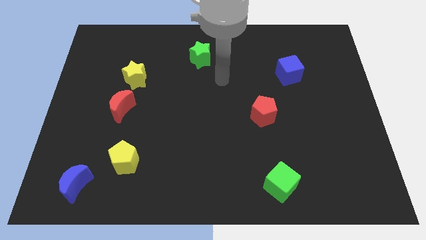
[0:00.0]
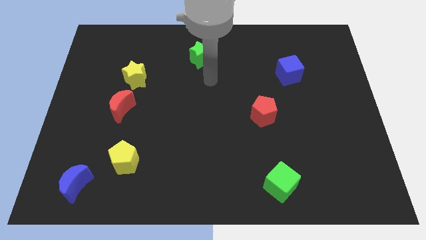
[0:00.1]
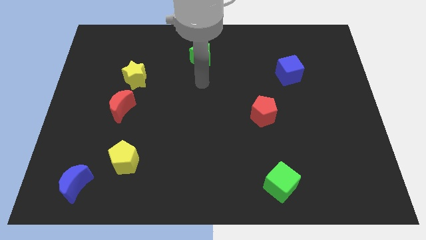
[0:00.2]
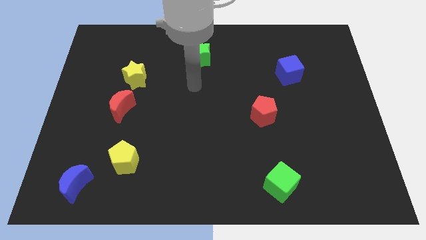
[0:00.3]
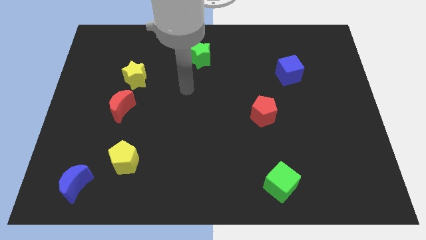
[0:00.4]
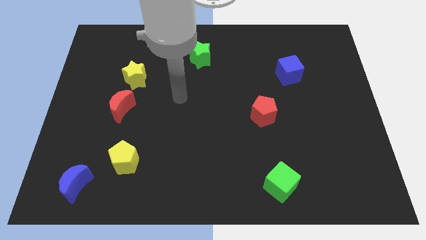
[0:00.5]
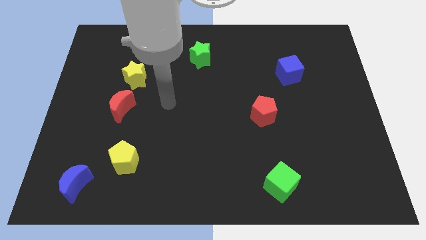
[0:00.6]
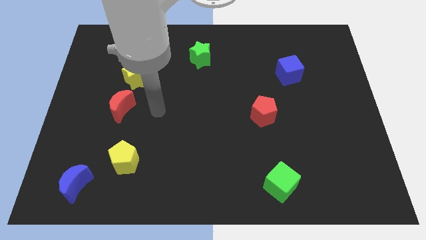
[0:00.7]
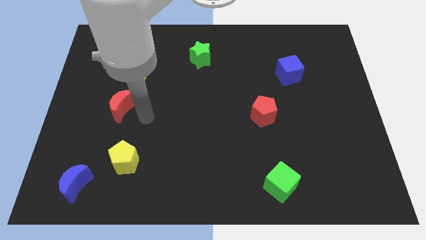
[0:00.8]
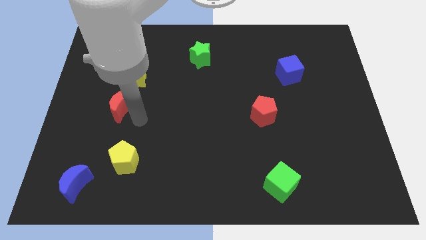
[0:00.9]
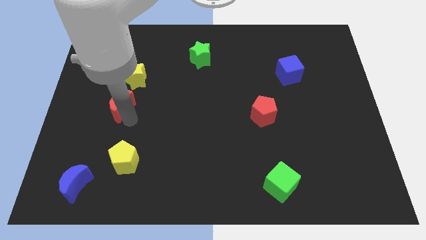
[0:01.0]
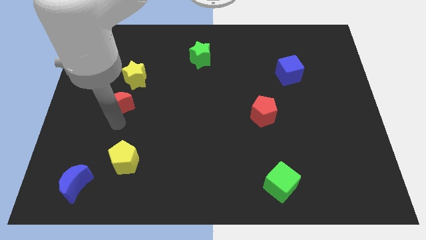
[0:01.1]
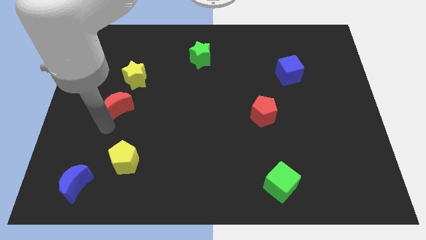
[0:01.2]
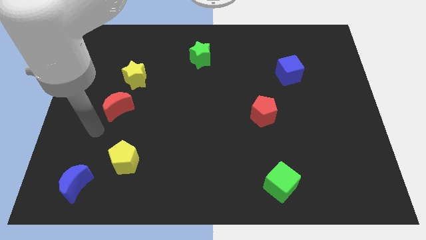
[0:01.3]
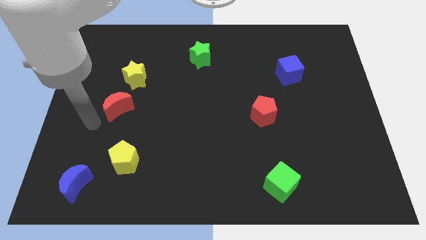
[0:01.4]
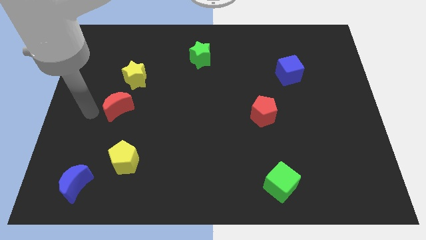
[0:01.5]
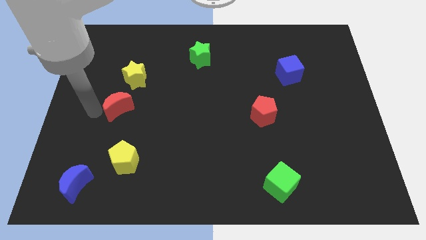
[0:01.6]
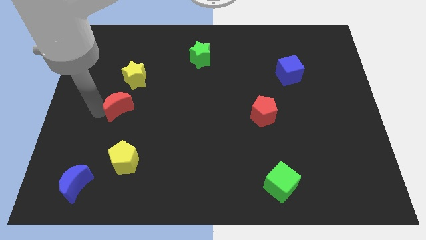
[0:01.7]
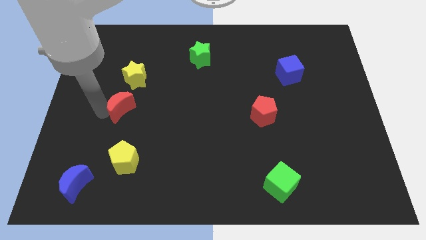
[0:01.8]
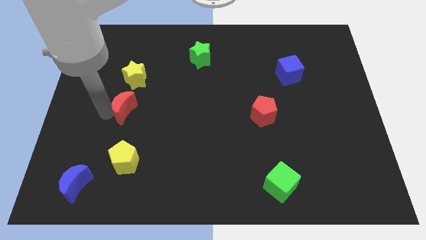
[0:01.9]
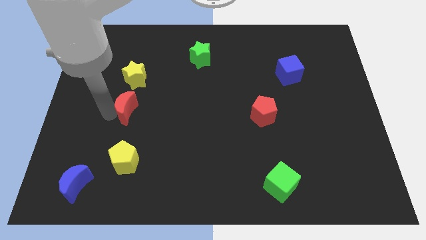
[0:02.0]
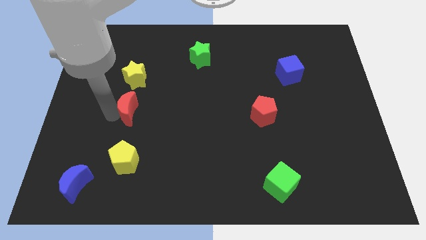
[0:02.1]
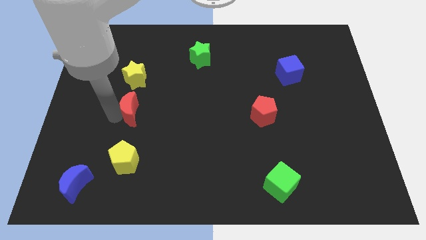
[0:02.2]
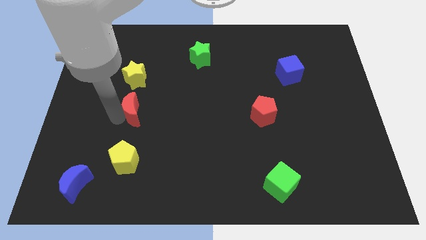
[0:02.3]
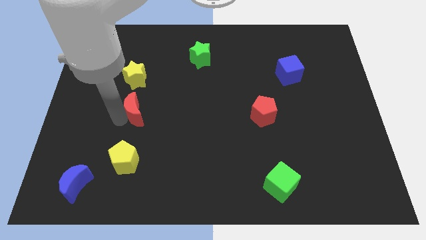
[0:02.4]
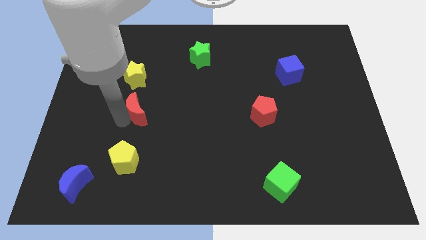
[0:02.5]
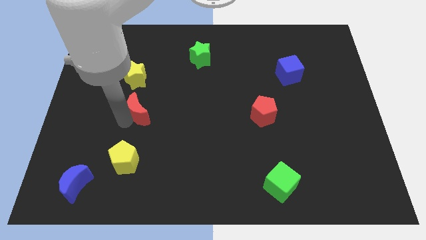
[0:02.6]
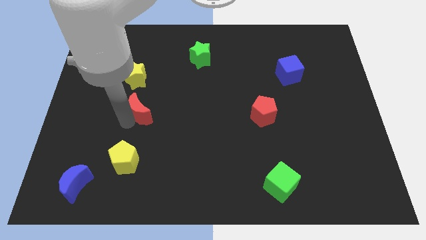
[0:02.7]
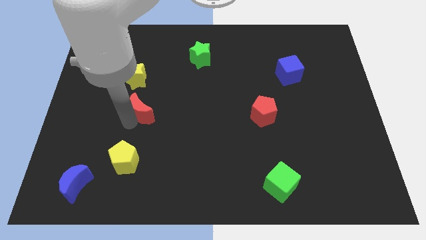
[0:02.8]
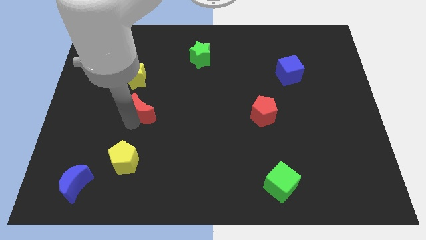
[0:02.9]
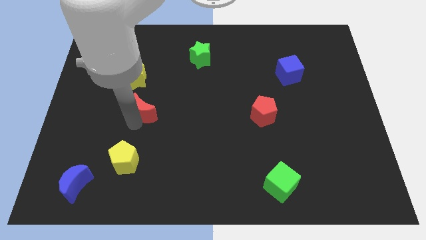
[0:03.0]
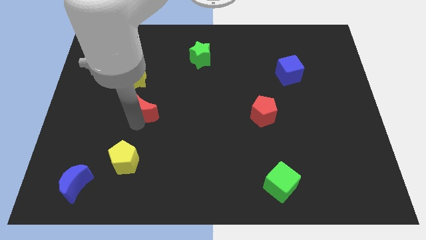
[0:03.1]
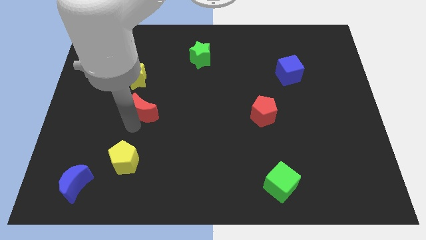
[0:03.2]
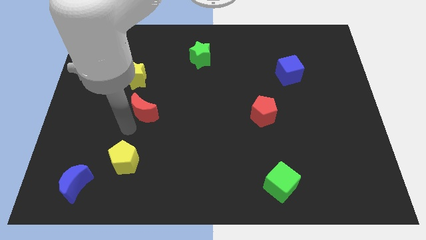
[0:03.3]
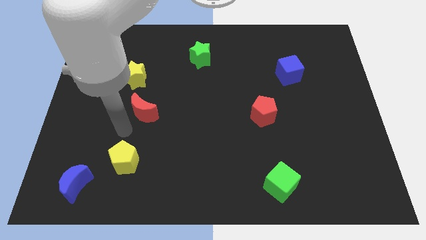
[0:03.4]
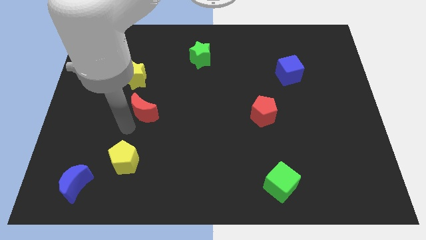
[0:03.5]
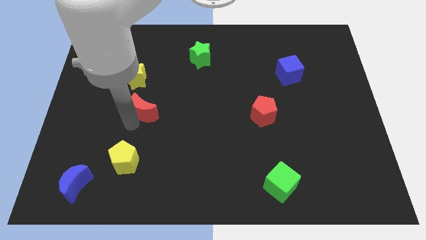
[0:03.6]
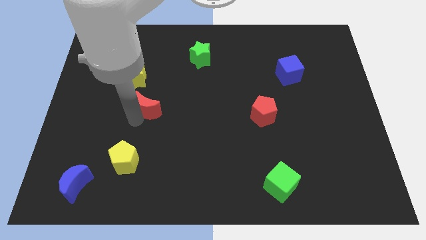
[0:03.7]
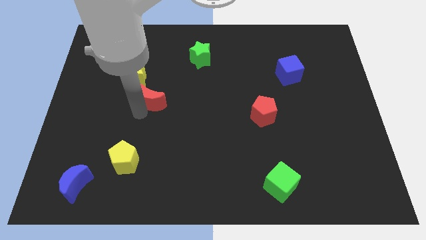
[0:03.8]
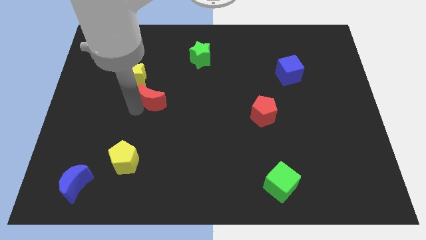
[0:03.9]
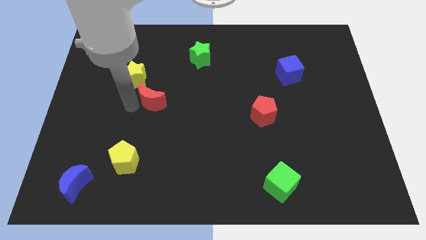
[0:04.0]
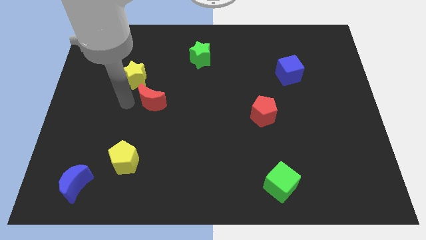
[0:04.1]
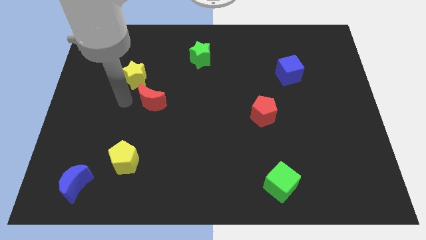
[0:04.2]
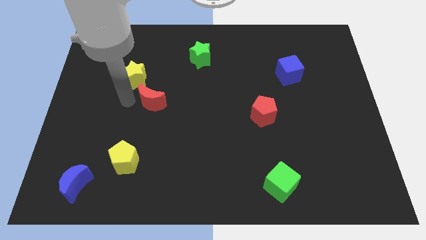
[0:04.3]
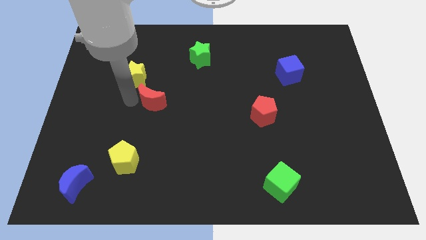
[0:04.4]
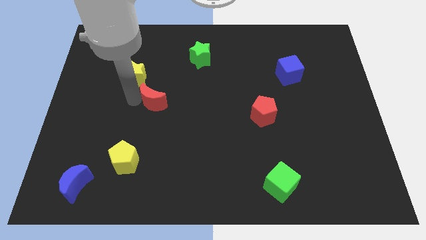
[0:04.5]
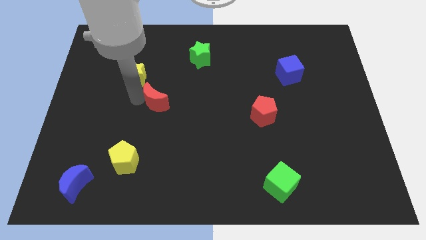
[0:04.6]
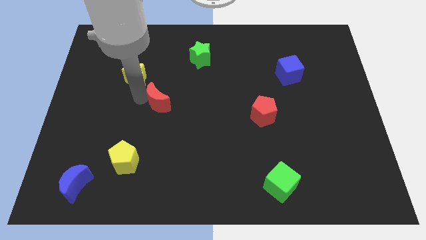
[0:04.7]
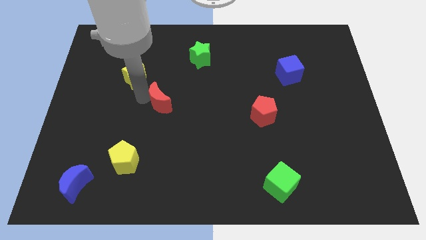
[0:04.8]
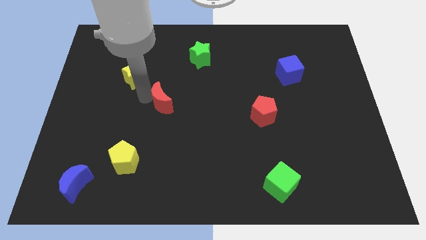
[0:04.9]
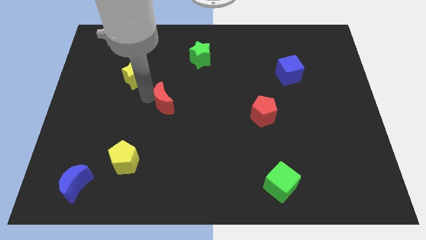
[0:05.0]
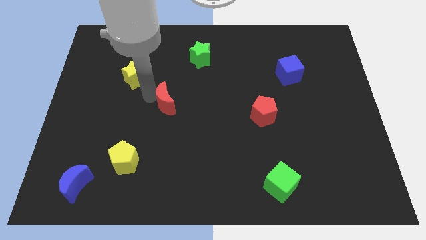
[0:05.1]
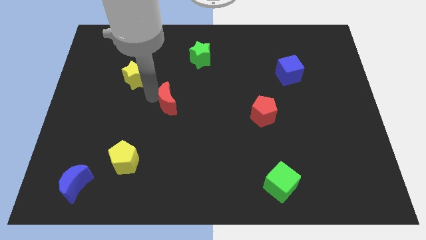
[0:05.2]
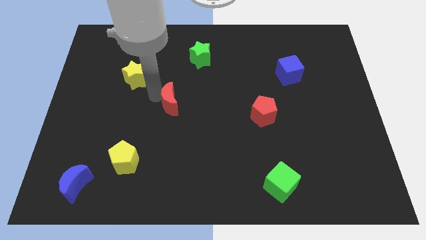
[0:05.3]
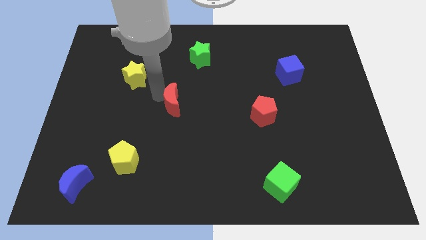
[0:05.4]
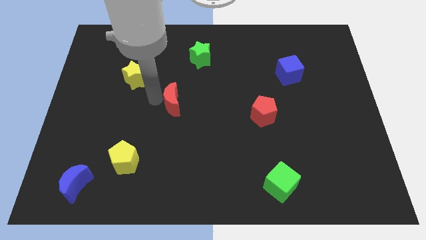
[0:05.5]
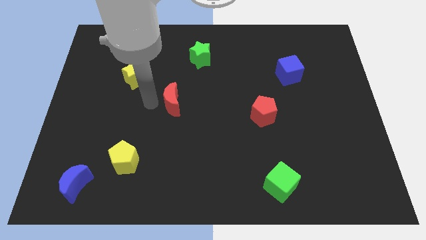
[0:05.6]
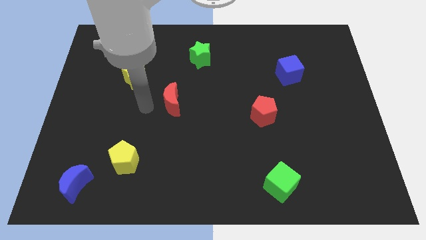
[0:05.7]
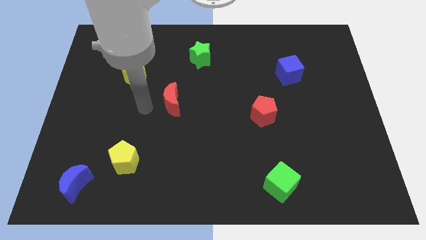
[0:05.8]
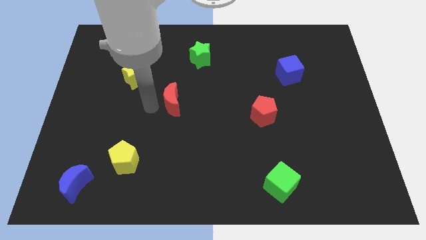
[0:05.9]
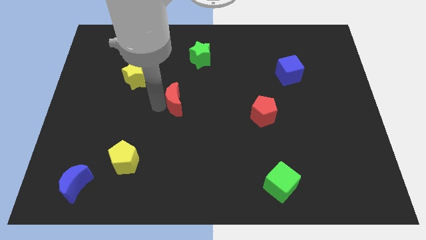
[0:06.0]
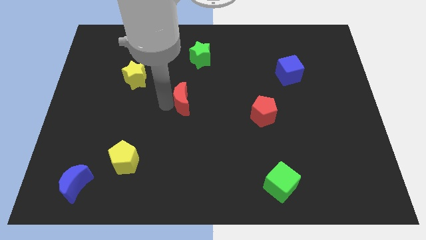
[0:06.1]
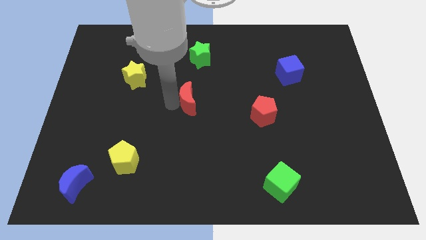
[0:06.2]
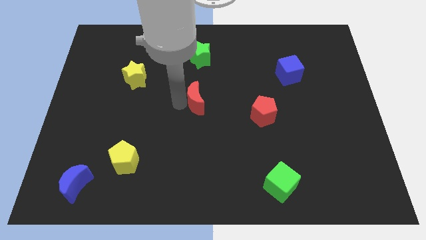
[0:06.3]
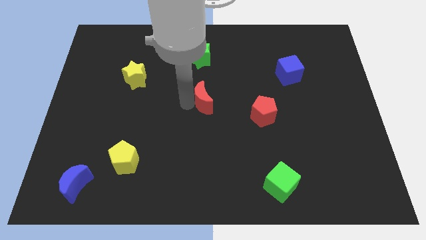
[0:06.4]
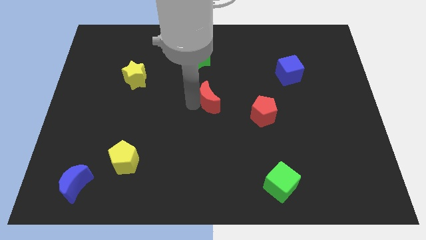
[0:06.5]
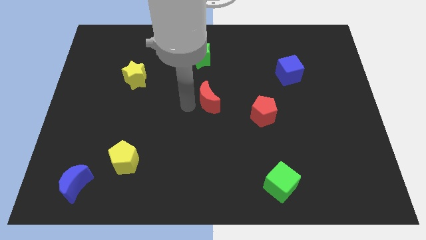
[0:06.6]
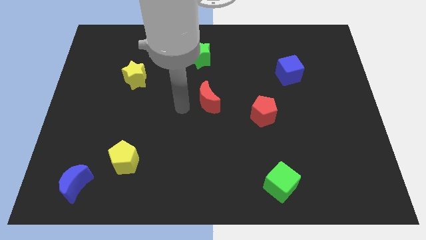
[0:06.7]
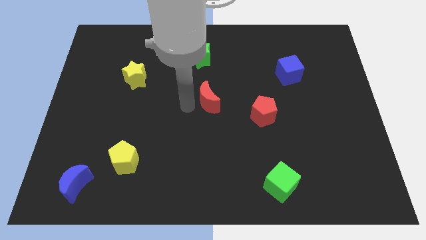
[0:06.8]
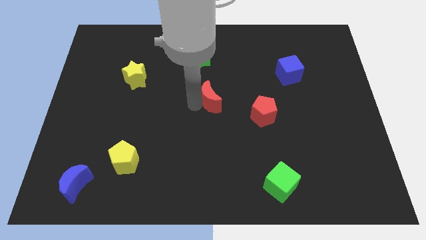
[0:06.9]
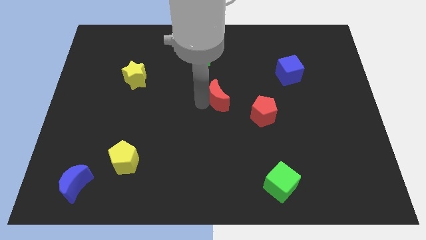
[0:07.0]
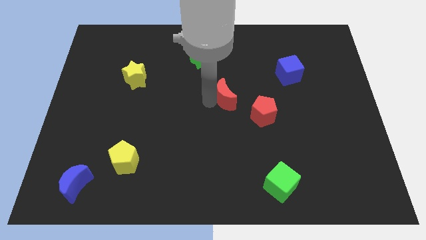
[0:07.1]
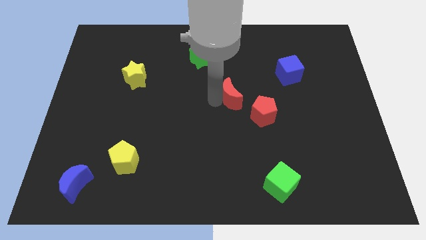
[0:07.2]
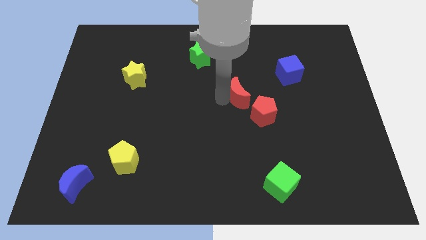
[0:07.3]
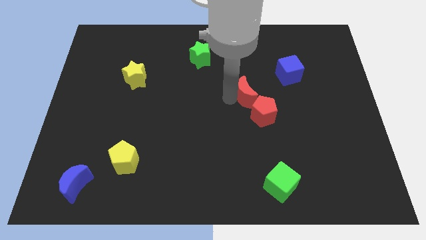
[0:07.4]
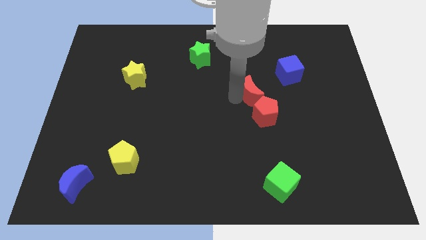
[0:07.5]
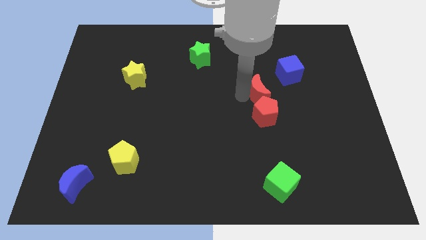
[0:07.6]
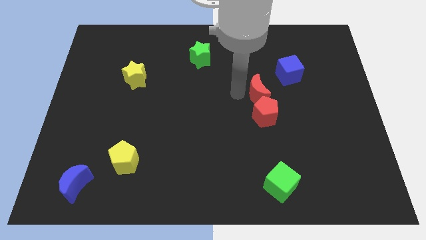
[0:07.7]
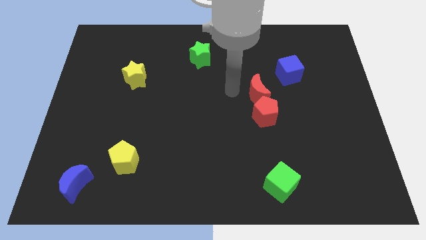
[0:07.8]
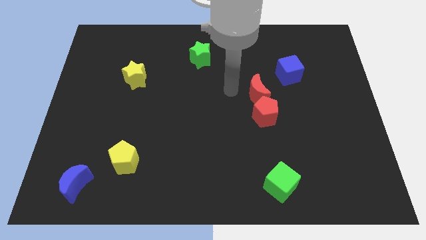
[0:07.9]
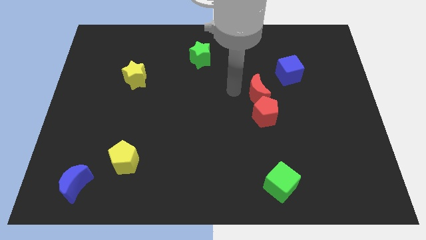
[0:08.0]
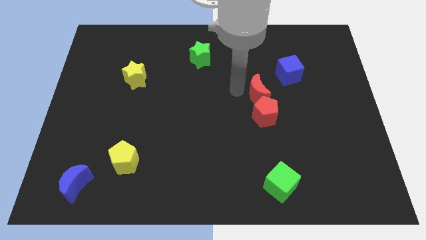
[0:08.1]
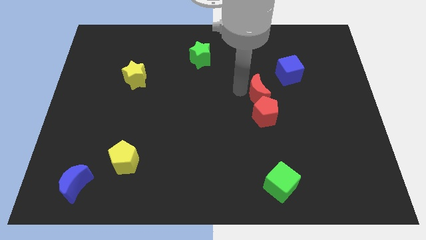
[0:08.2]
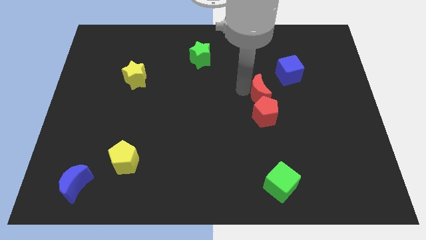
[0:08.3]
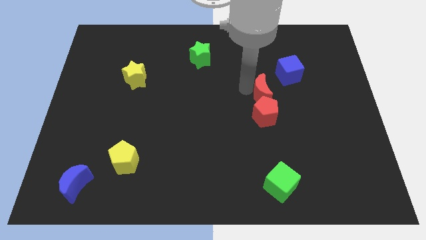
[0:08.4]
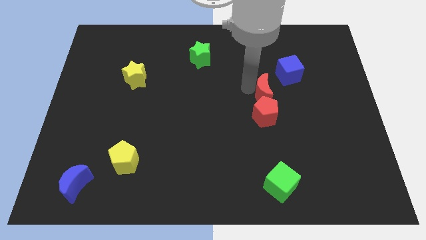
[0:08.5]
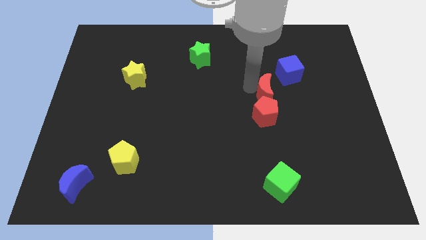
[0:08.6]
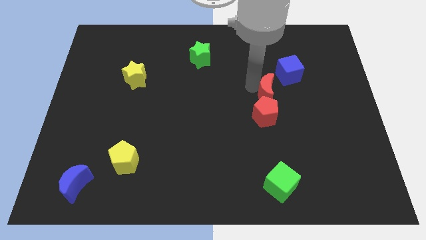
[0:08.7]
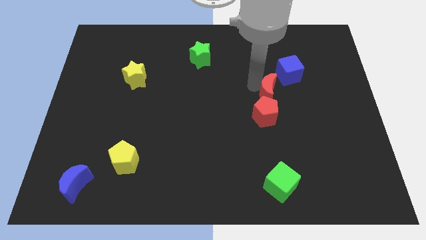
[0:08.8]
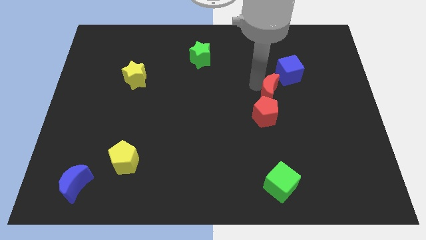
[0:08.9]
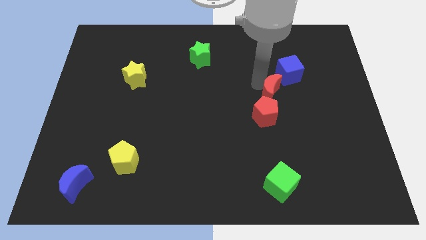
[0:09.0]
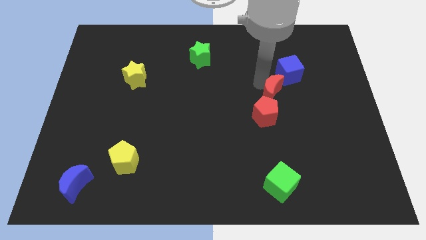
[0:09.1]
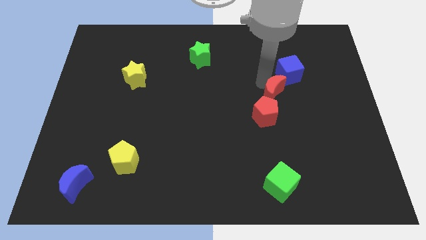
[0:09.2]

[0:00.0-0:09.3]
push the red moon to the bottom side of the blue cube
